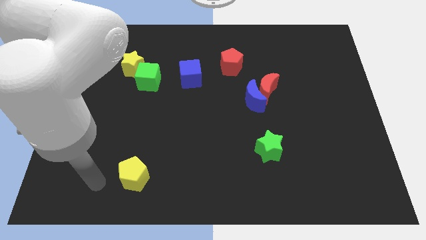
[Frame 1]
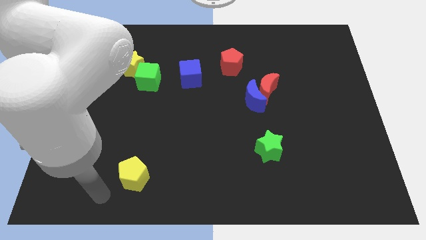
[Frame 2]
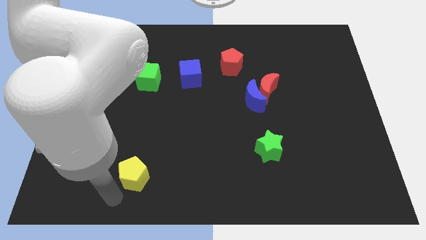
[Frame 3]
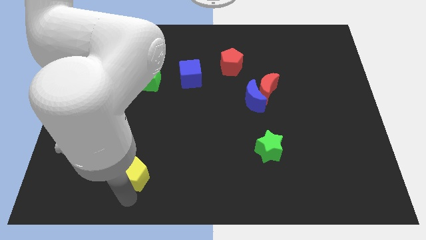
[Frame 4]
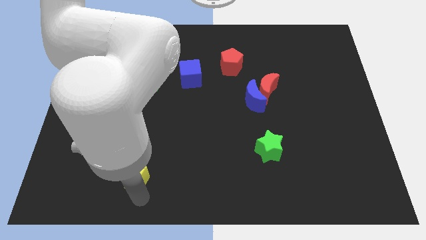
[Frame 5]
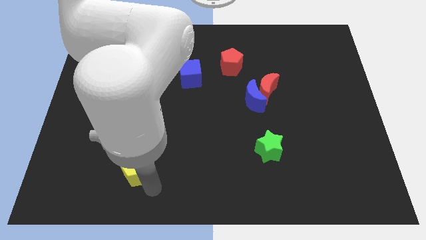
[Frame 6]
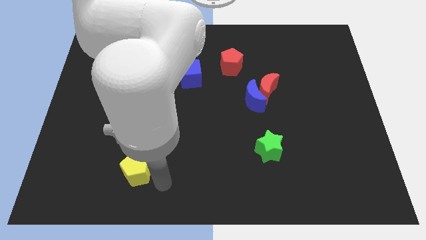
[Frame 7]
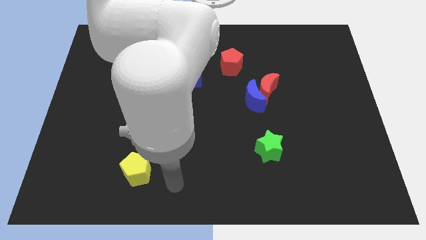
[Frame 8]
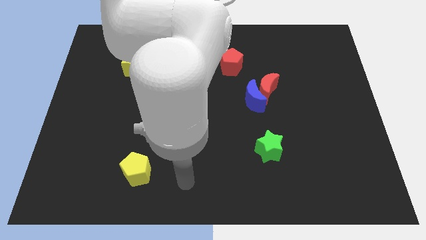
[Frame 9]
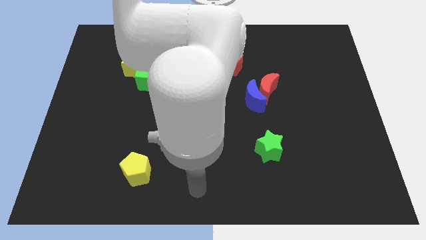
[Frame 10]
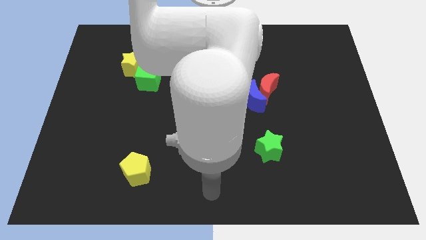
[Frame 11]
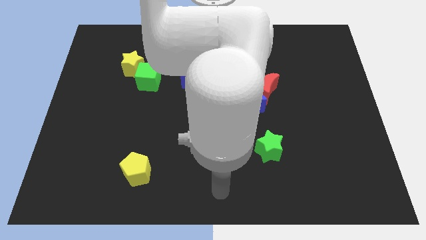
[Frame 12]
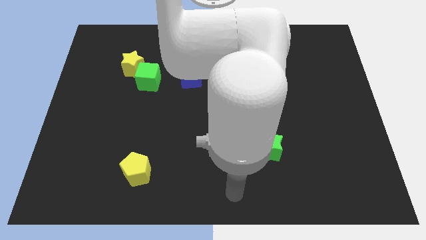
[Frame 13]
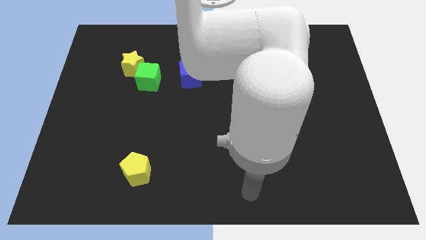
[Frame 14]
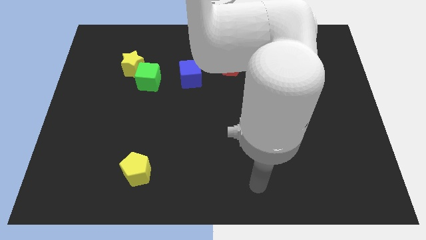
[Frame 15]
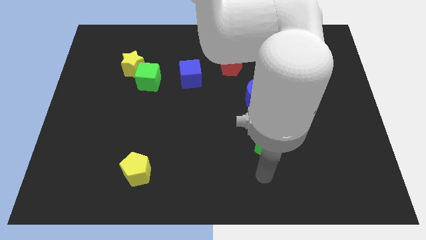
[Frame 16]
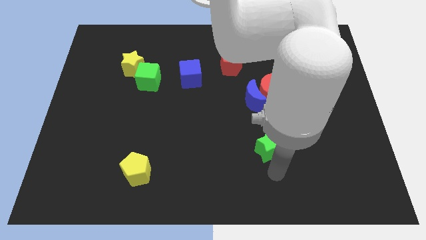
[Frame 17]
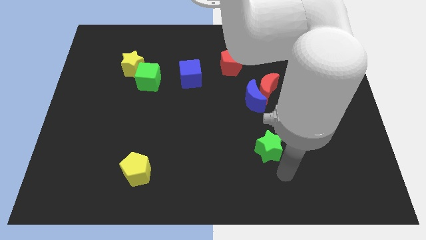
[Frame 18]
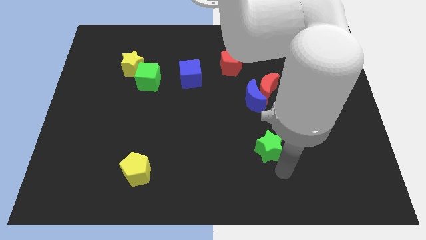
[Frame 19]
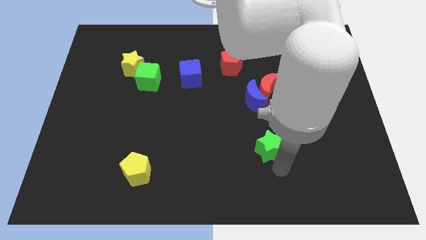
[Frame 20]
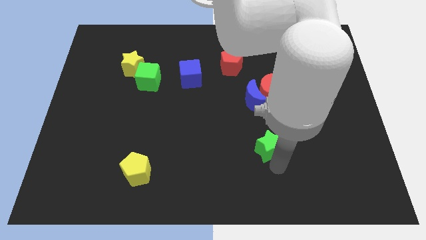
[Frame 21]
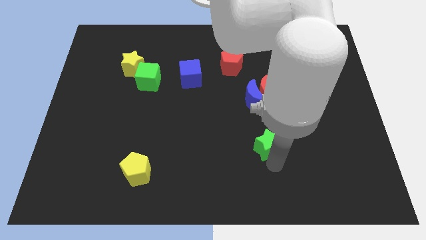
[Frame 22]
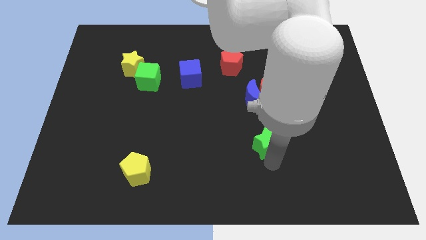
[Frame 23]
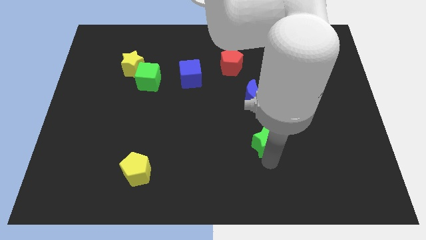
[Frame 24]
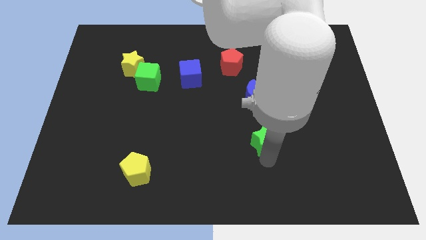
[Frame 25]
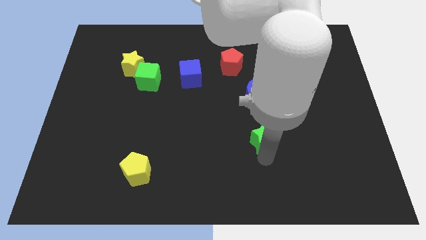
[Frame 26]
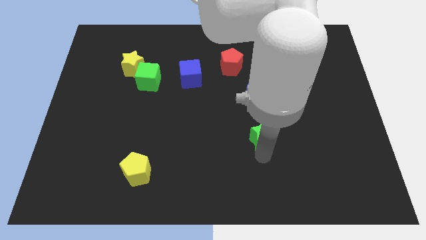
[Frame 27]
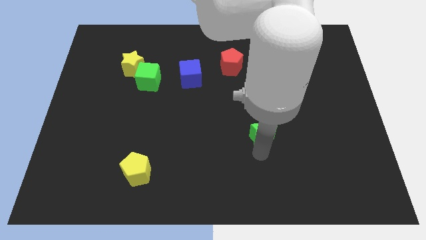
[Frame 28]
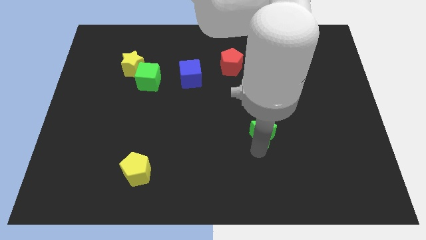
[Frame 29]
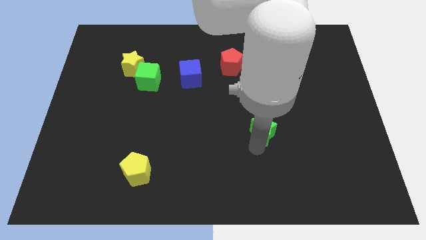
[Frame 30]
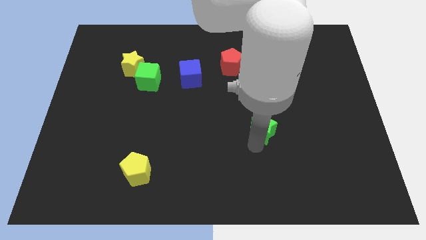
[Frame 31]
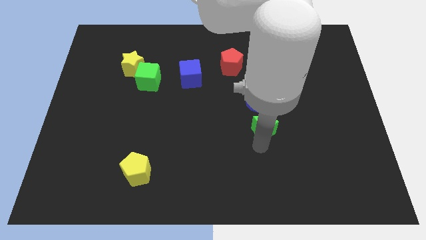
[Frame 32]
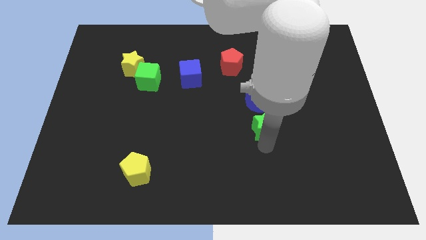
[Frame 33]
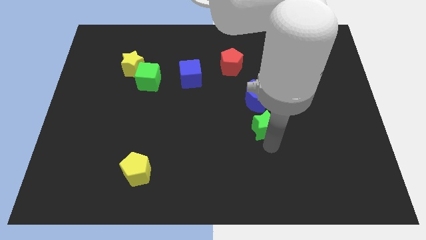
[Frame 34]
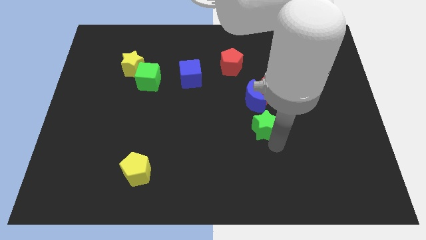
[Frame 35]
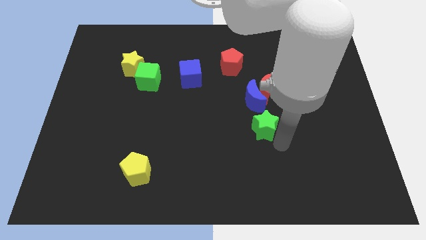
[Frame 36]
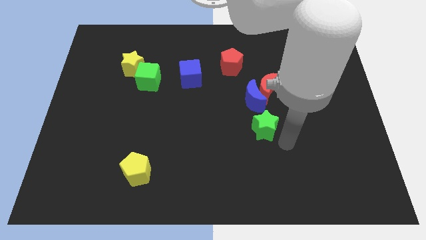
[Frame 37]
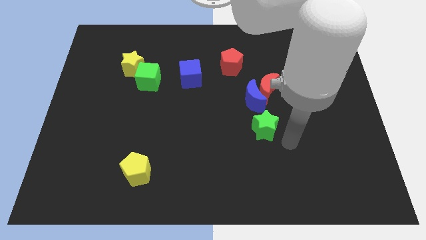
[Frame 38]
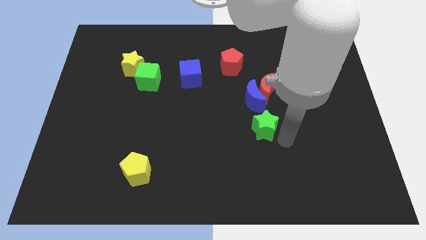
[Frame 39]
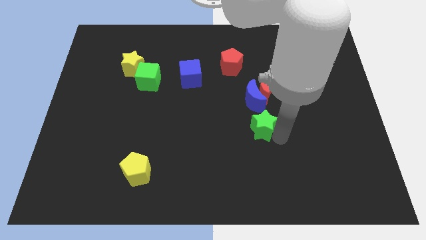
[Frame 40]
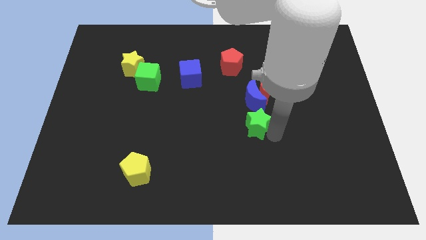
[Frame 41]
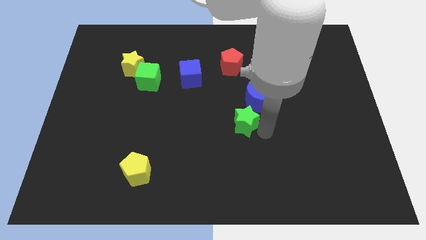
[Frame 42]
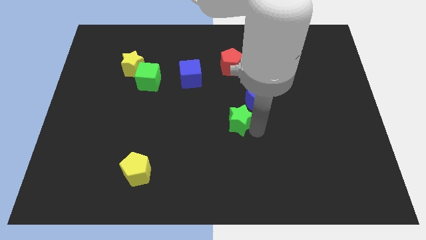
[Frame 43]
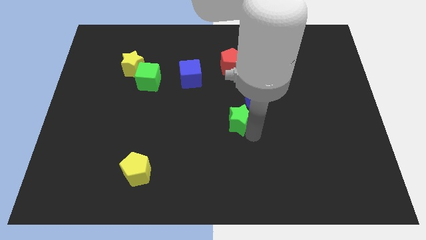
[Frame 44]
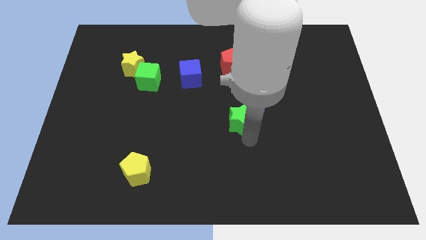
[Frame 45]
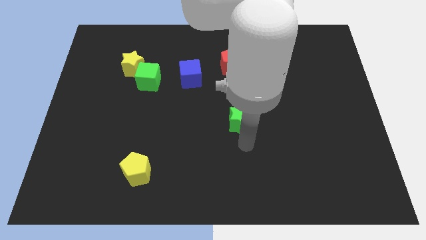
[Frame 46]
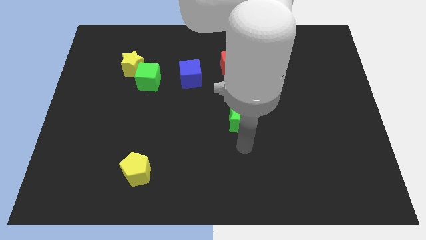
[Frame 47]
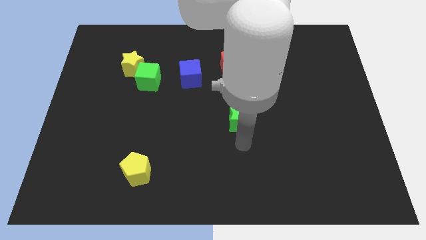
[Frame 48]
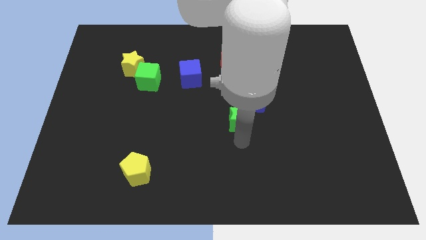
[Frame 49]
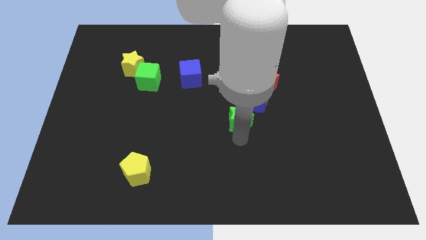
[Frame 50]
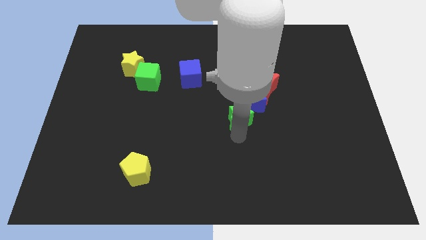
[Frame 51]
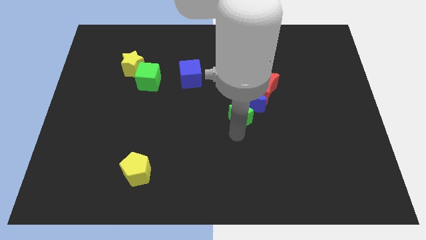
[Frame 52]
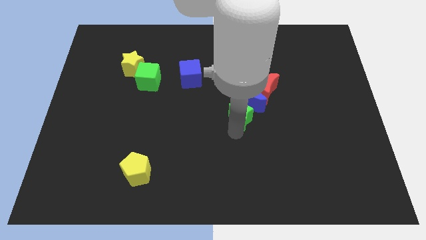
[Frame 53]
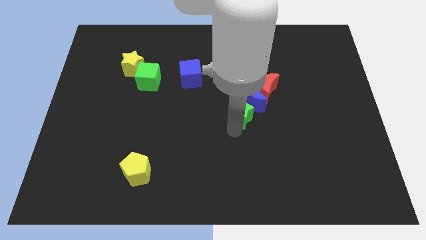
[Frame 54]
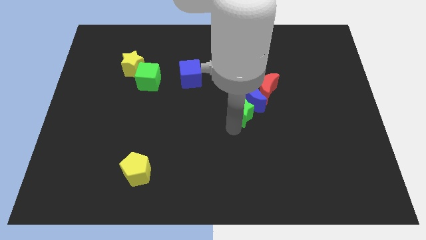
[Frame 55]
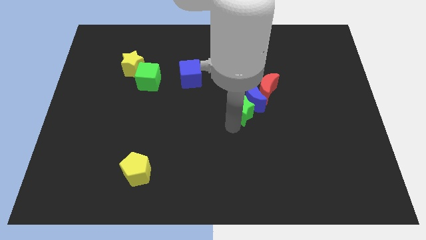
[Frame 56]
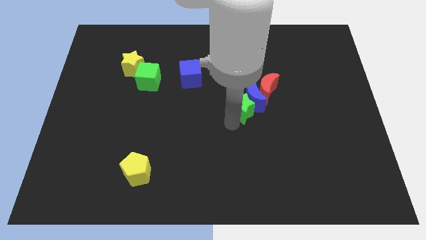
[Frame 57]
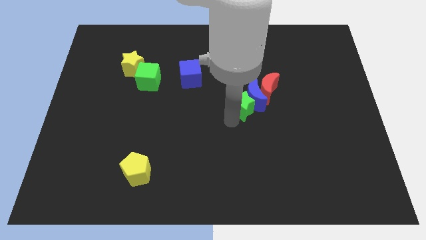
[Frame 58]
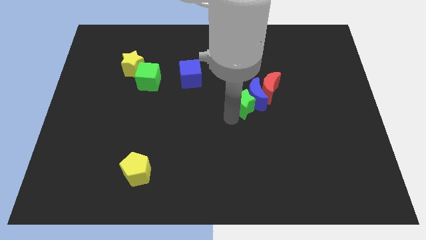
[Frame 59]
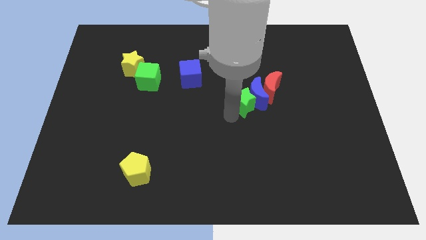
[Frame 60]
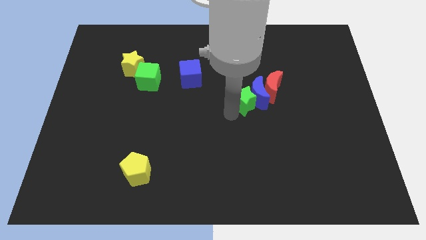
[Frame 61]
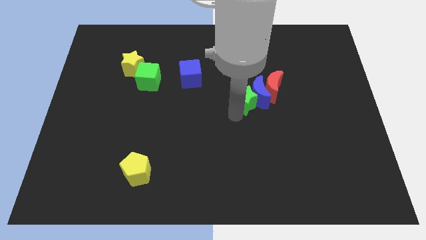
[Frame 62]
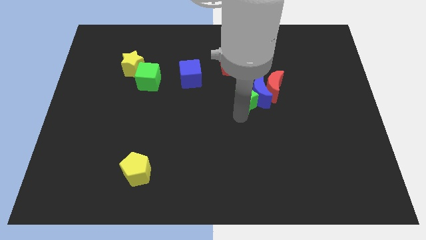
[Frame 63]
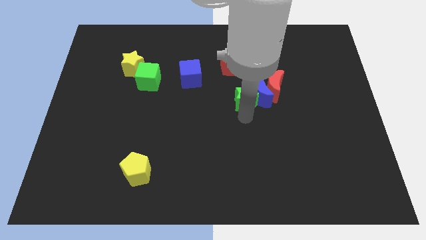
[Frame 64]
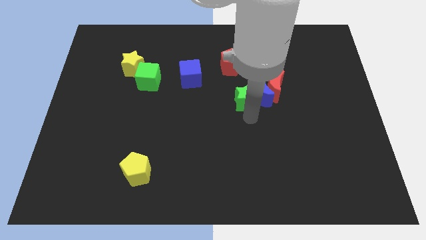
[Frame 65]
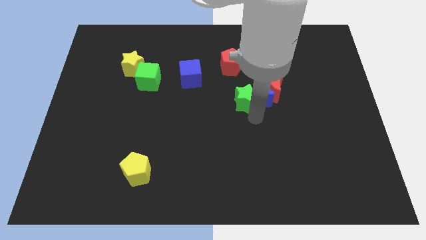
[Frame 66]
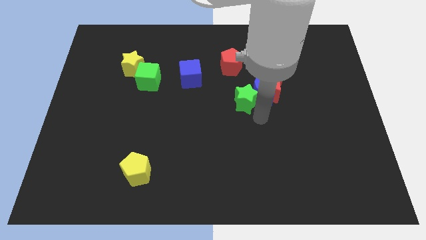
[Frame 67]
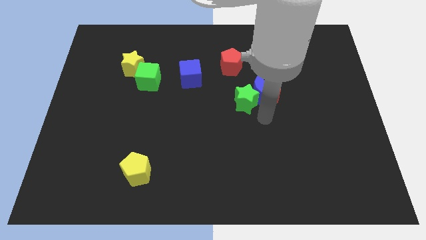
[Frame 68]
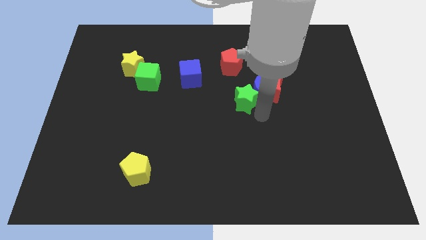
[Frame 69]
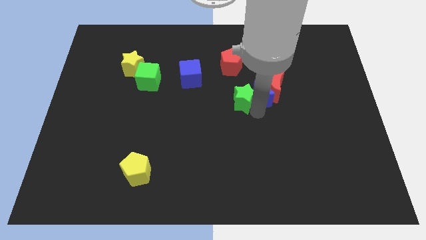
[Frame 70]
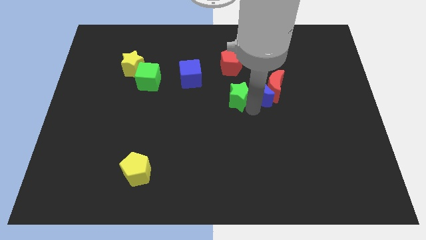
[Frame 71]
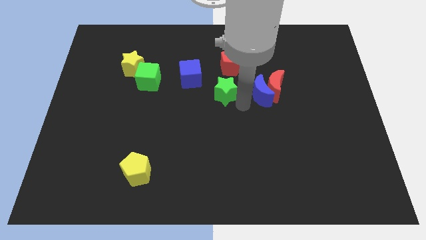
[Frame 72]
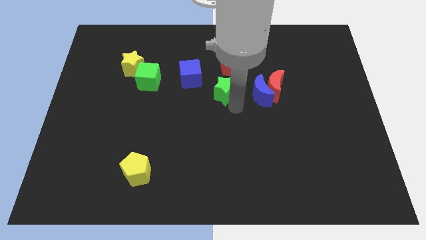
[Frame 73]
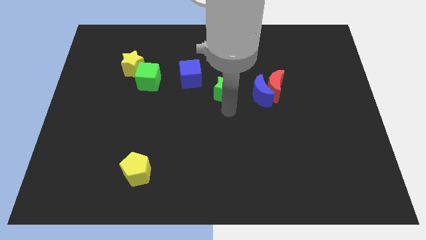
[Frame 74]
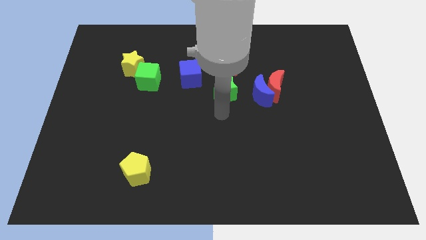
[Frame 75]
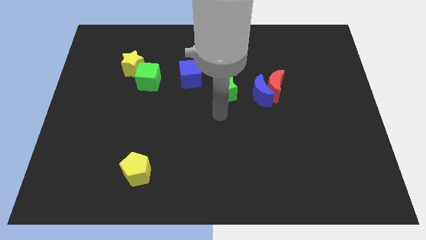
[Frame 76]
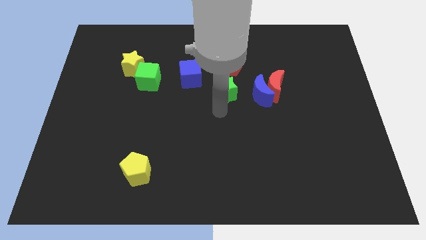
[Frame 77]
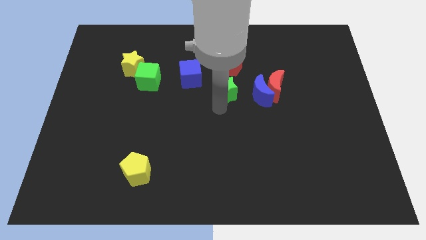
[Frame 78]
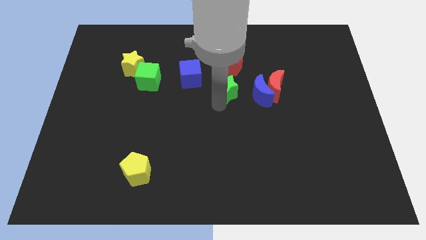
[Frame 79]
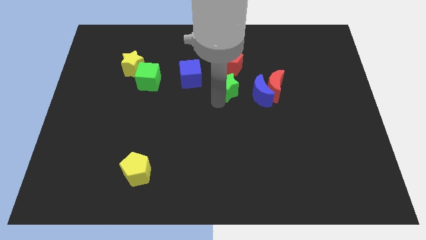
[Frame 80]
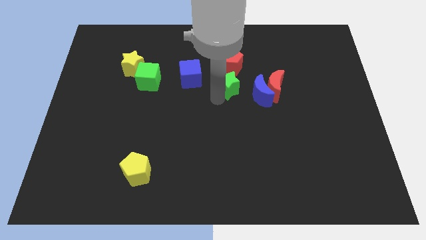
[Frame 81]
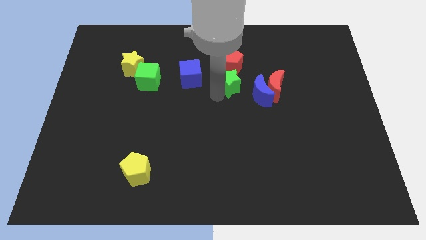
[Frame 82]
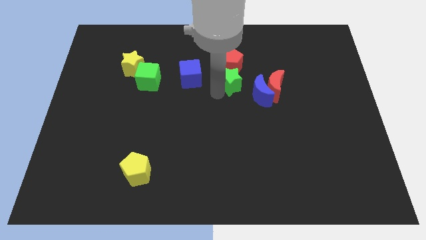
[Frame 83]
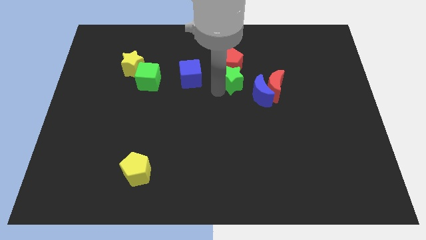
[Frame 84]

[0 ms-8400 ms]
move the green star next to the red pentagon
